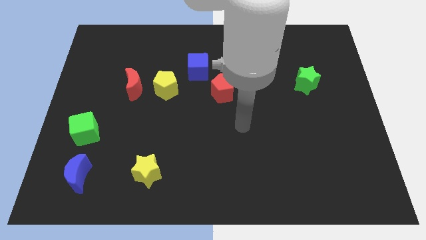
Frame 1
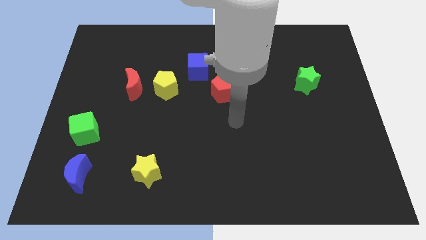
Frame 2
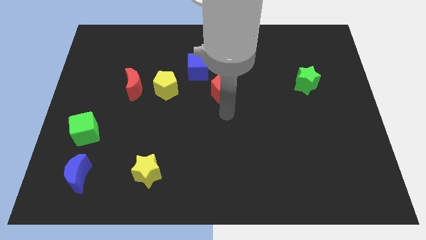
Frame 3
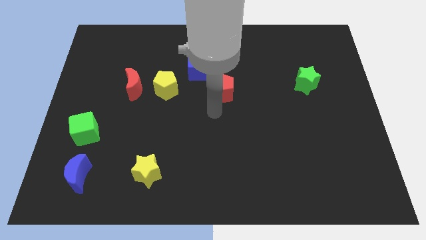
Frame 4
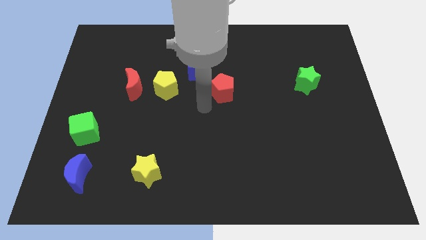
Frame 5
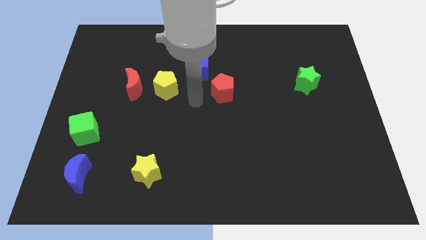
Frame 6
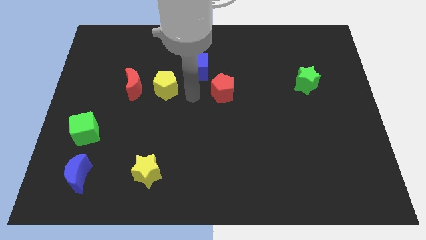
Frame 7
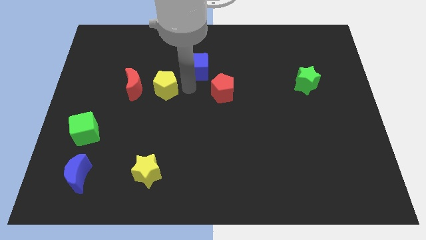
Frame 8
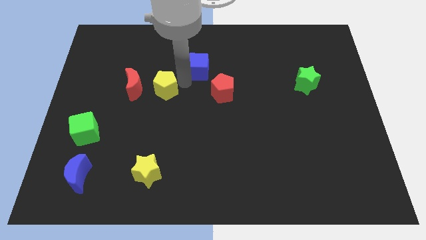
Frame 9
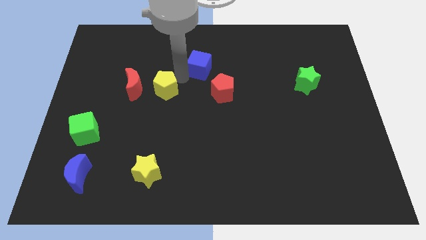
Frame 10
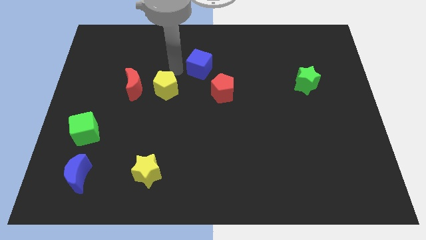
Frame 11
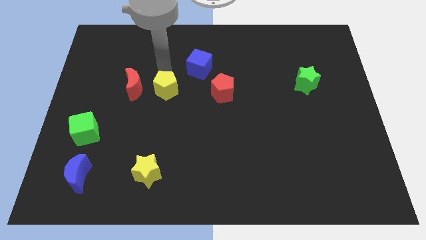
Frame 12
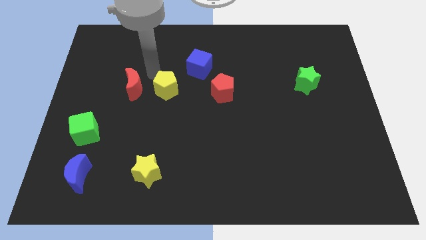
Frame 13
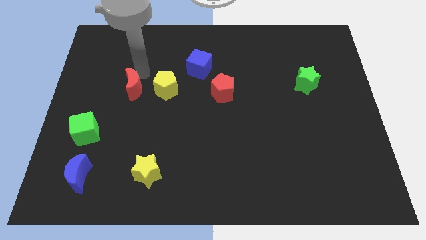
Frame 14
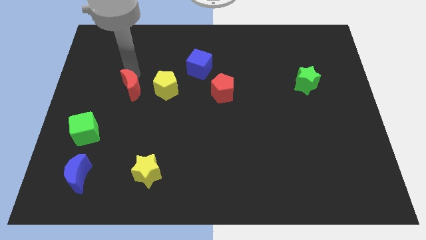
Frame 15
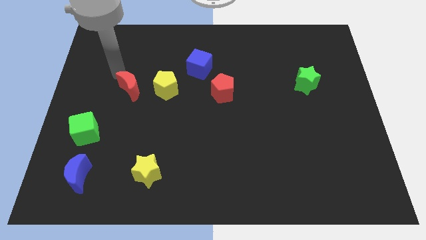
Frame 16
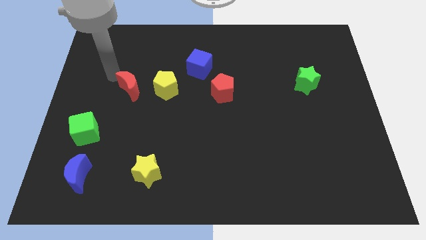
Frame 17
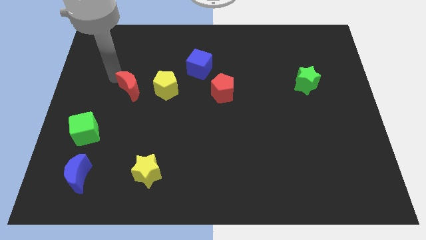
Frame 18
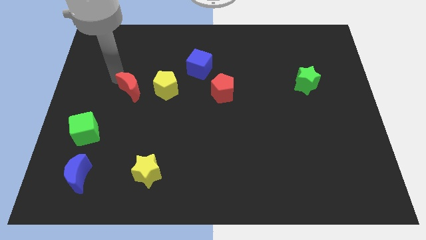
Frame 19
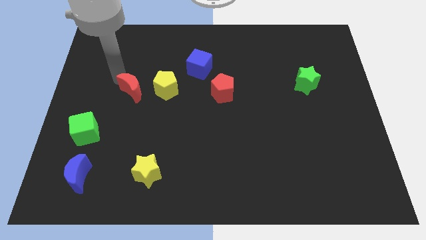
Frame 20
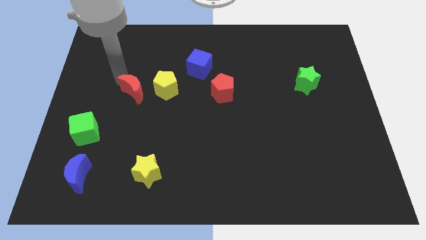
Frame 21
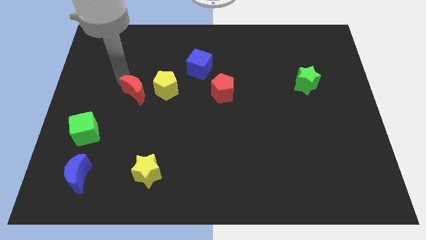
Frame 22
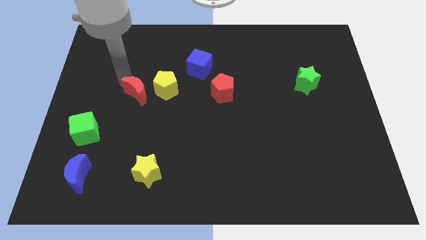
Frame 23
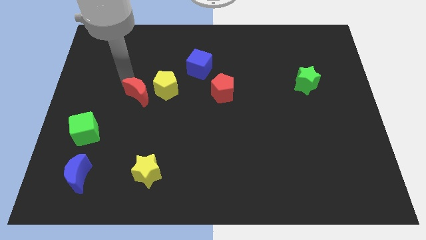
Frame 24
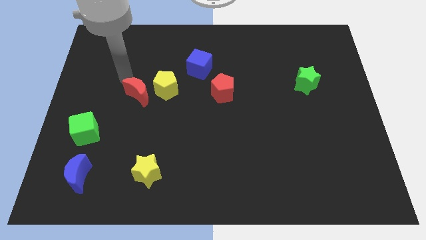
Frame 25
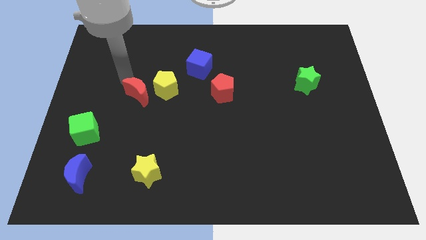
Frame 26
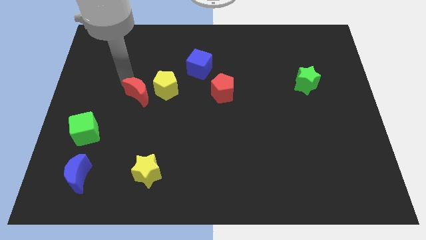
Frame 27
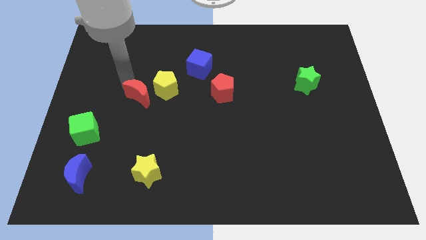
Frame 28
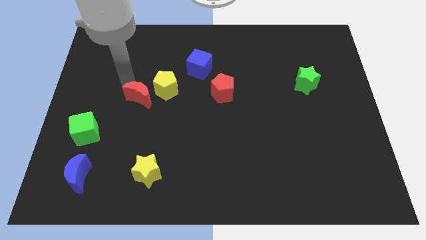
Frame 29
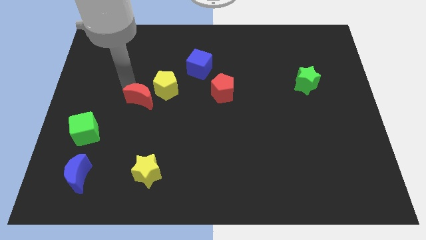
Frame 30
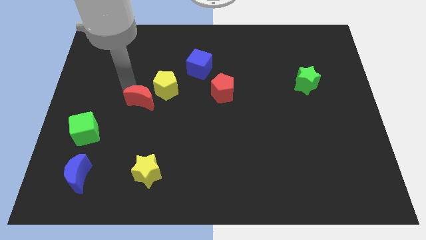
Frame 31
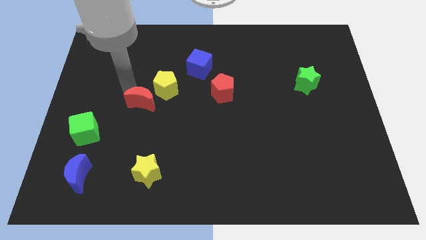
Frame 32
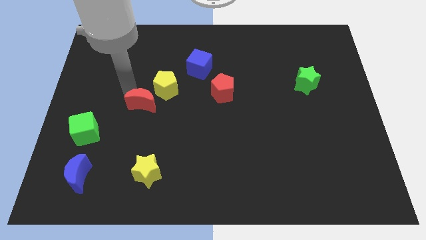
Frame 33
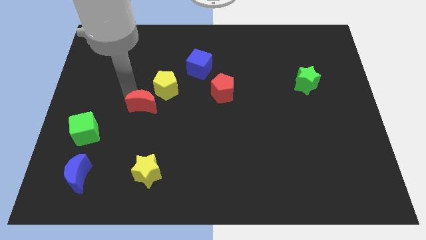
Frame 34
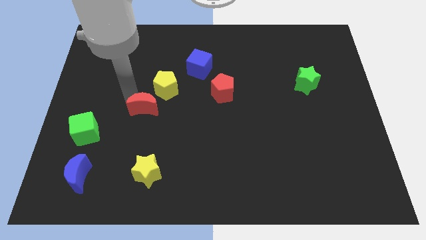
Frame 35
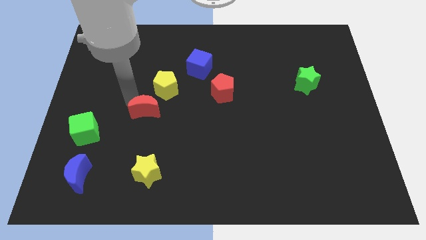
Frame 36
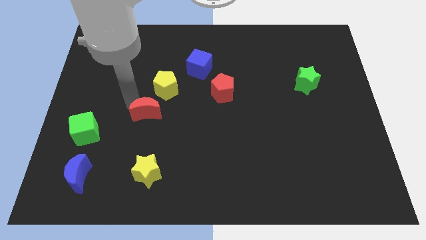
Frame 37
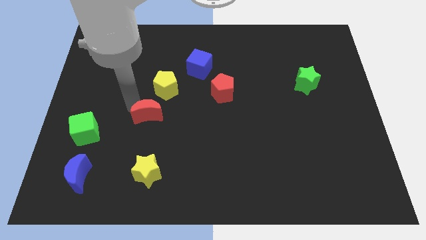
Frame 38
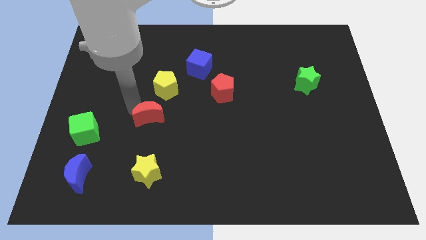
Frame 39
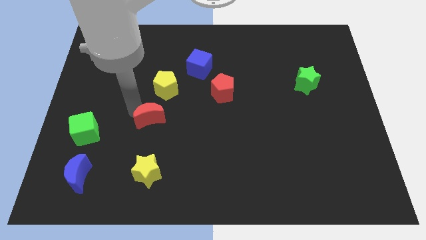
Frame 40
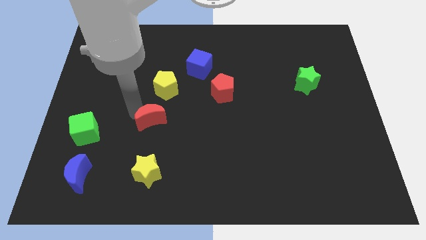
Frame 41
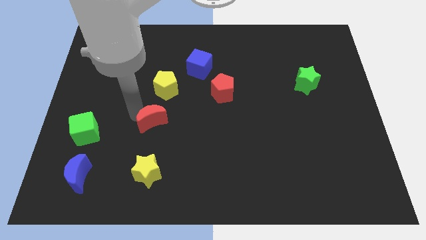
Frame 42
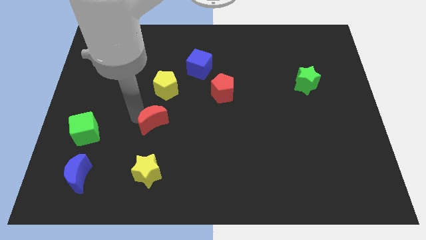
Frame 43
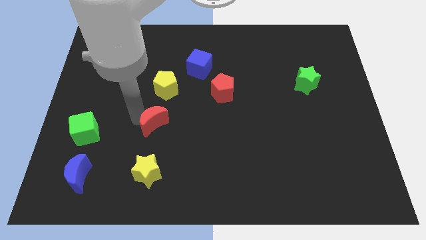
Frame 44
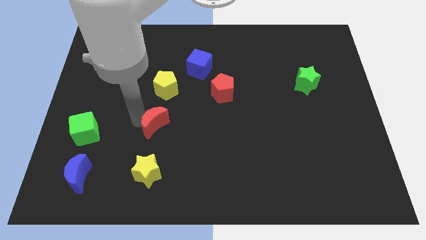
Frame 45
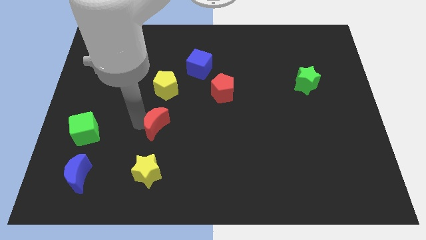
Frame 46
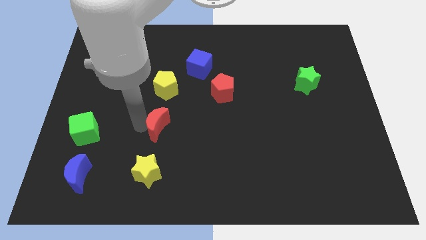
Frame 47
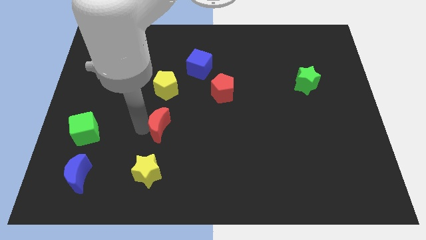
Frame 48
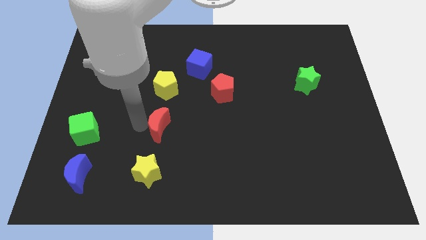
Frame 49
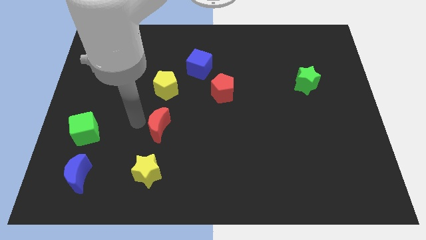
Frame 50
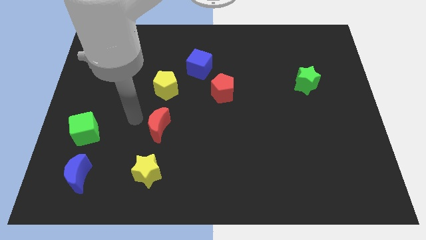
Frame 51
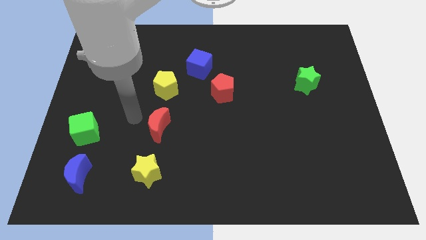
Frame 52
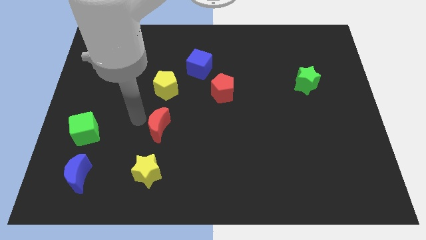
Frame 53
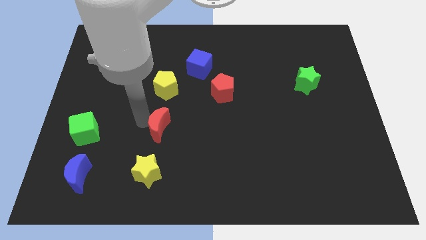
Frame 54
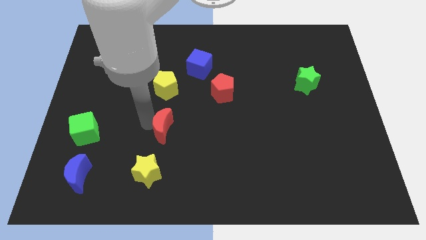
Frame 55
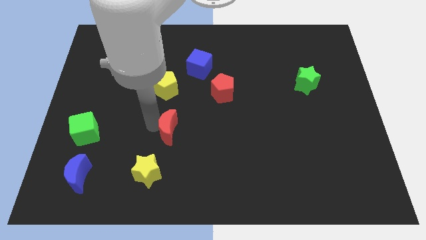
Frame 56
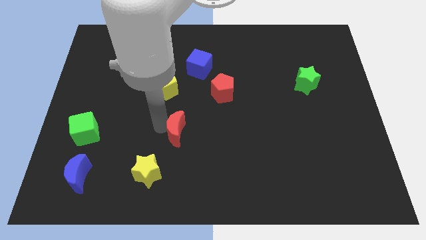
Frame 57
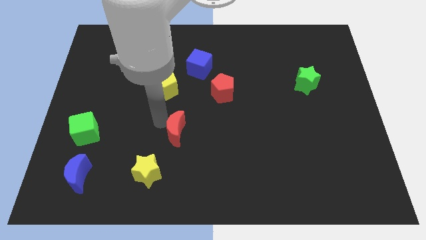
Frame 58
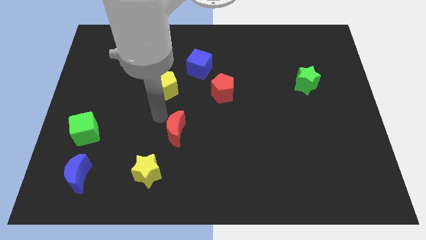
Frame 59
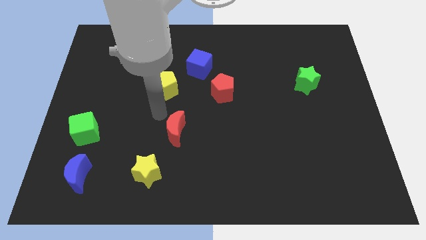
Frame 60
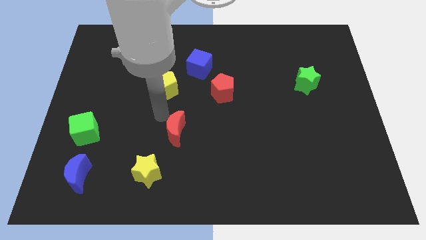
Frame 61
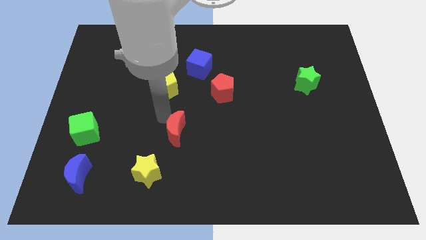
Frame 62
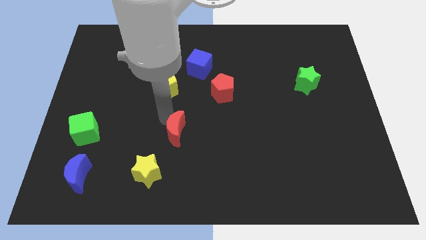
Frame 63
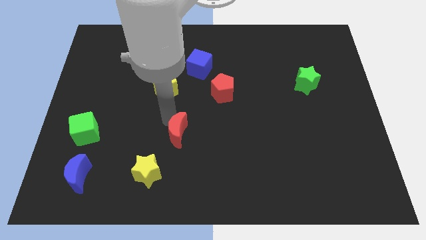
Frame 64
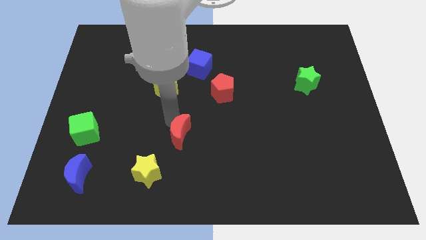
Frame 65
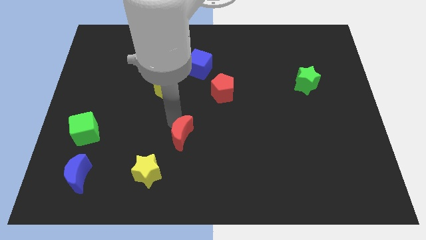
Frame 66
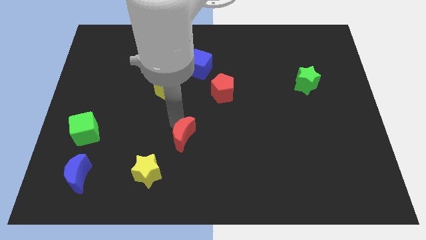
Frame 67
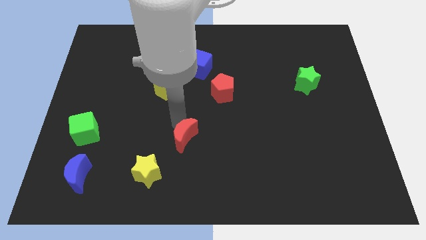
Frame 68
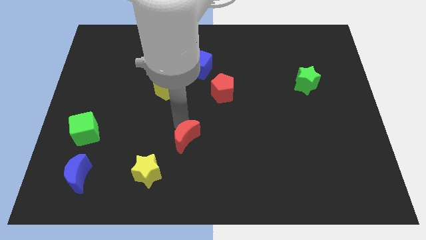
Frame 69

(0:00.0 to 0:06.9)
move the red moon diagonally down and right

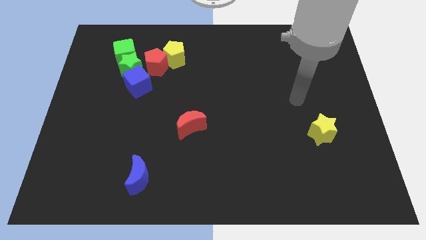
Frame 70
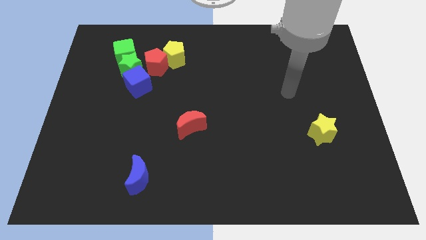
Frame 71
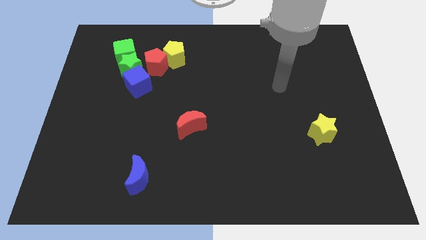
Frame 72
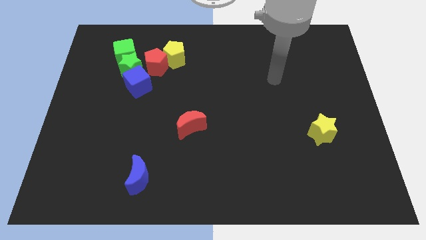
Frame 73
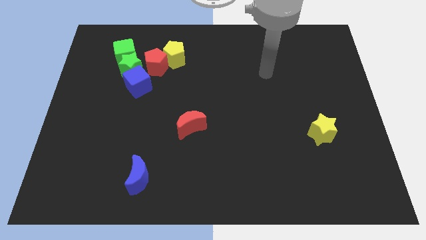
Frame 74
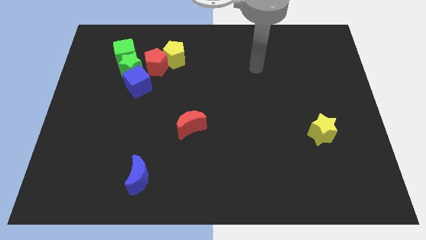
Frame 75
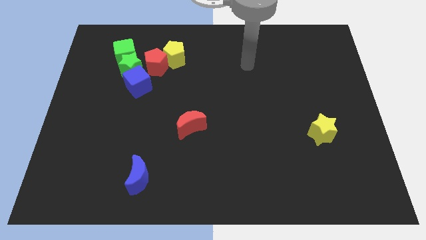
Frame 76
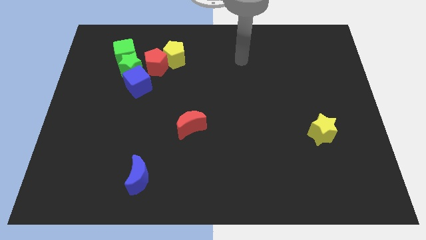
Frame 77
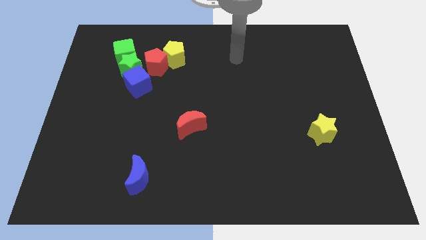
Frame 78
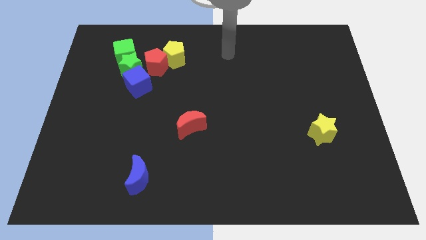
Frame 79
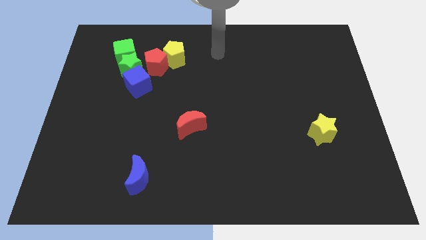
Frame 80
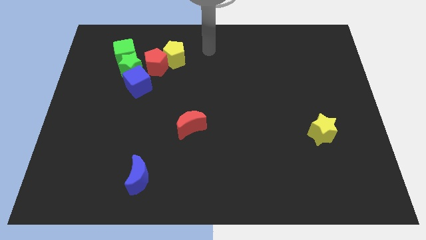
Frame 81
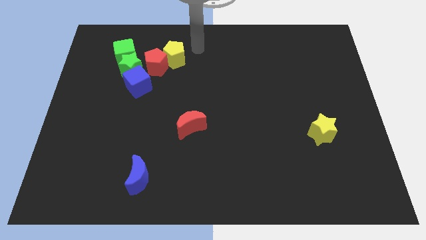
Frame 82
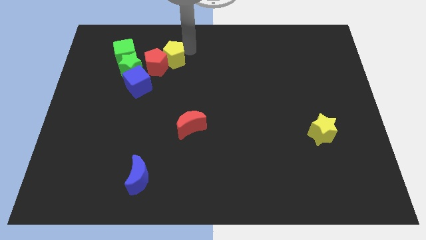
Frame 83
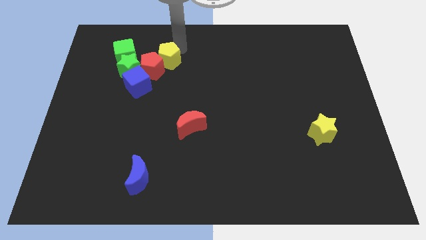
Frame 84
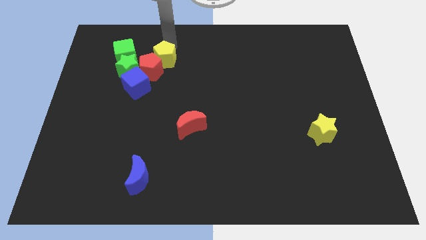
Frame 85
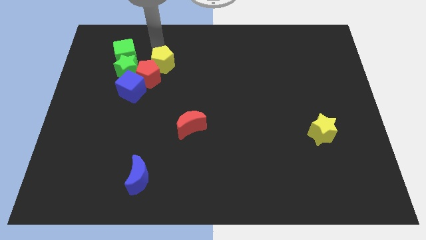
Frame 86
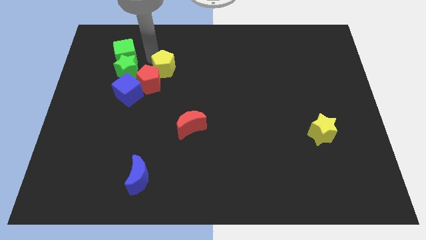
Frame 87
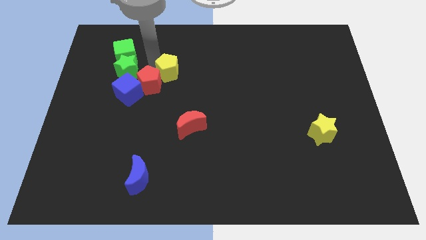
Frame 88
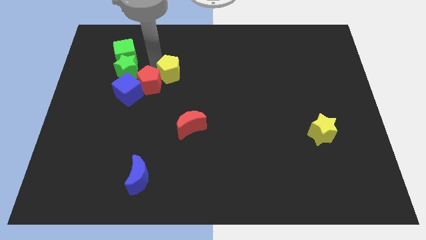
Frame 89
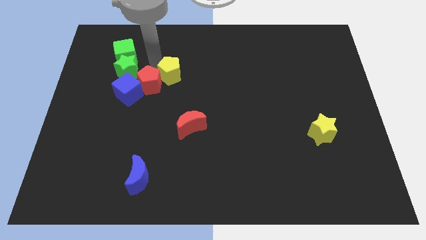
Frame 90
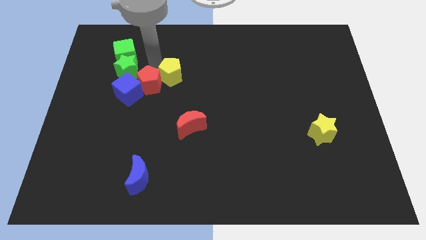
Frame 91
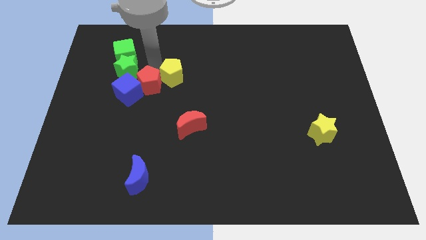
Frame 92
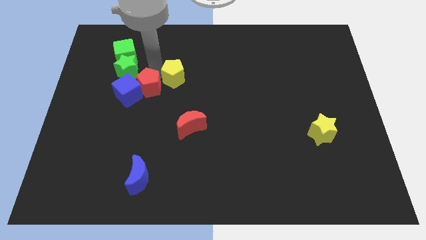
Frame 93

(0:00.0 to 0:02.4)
move the red pentagon slightly downwards
